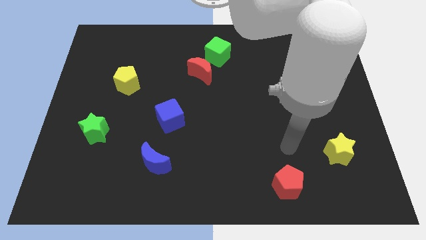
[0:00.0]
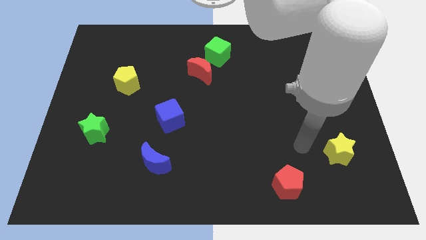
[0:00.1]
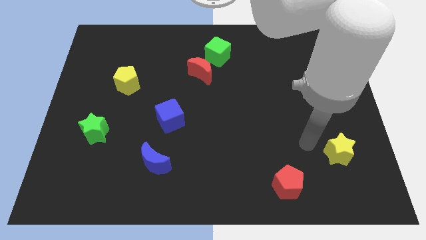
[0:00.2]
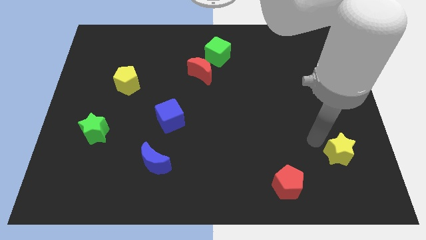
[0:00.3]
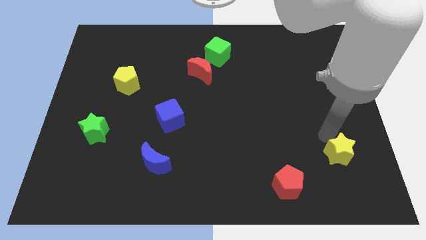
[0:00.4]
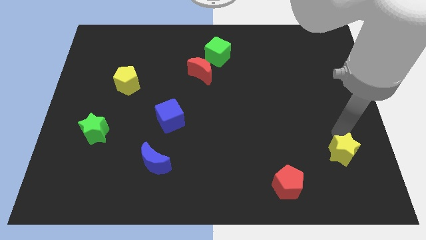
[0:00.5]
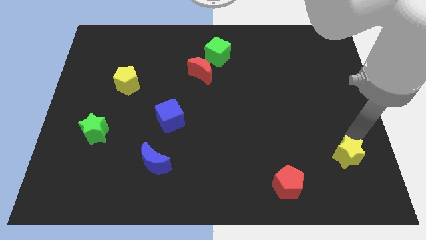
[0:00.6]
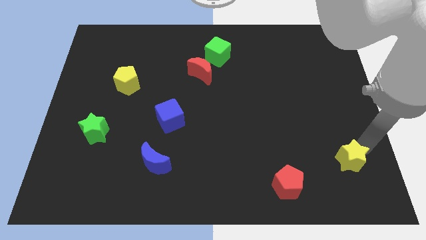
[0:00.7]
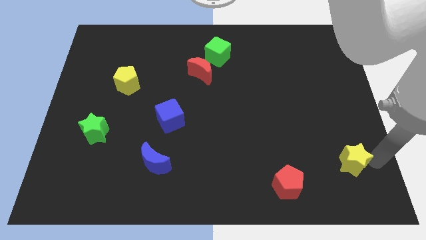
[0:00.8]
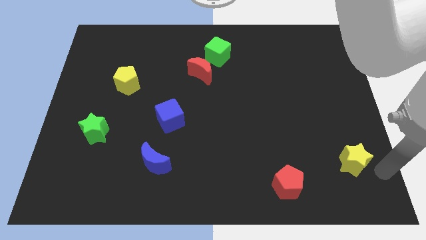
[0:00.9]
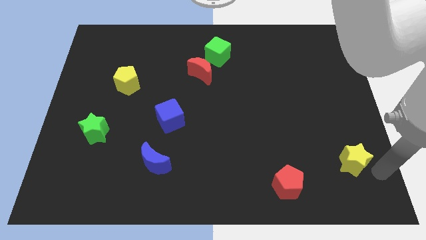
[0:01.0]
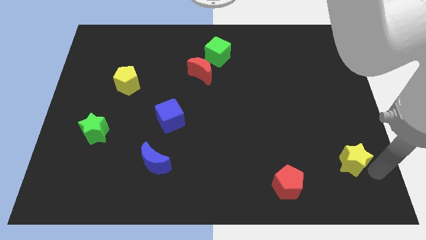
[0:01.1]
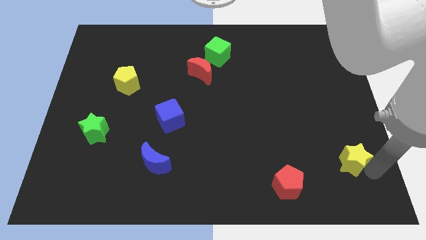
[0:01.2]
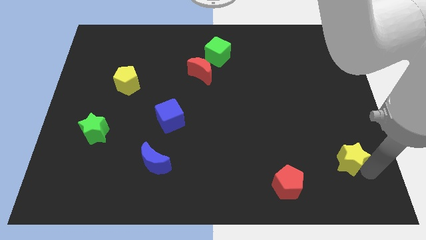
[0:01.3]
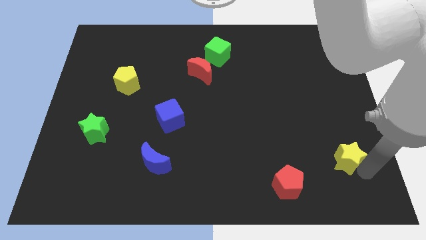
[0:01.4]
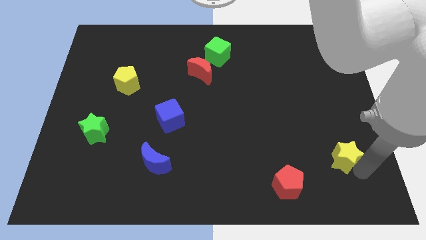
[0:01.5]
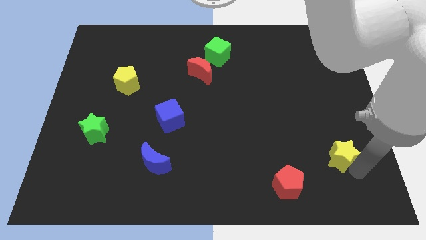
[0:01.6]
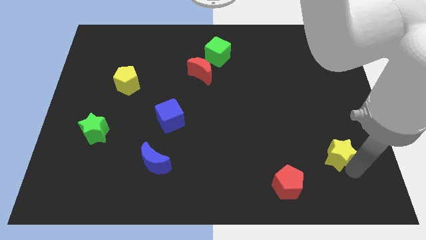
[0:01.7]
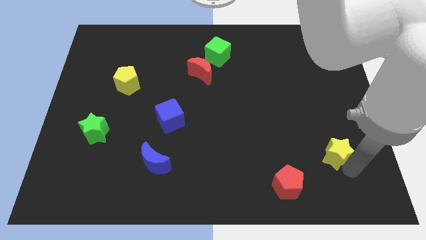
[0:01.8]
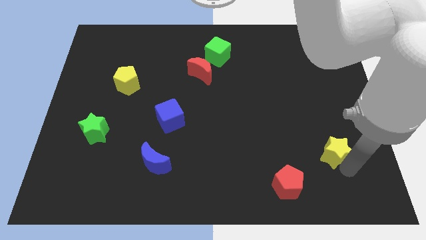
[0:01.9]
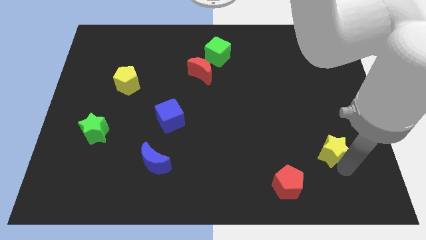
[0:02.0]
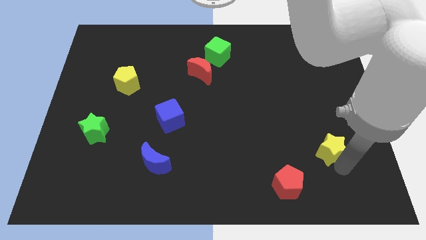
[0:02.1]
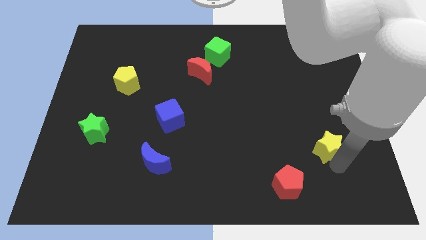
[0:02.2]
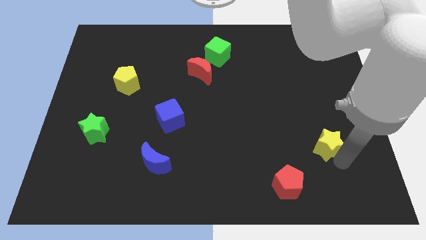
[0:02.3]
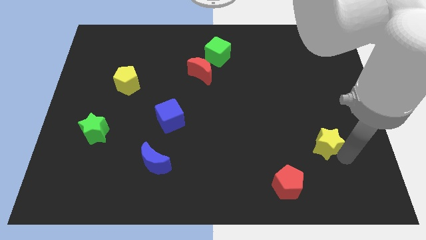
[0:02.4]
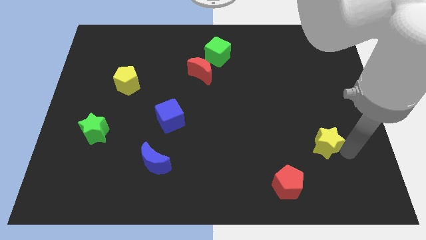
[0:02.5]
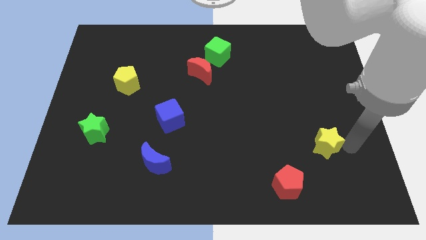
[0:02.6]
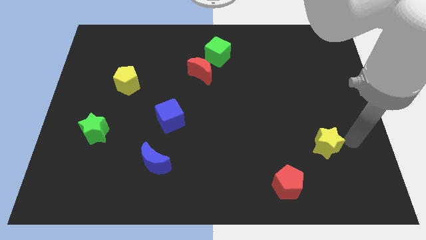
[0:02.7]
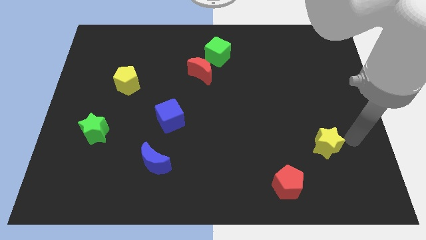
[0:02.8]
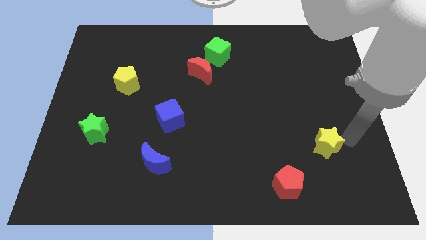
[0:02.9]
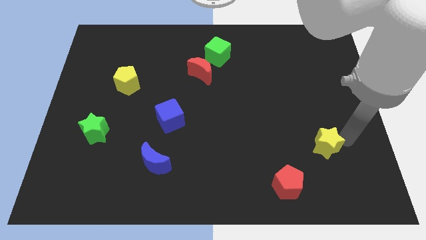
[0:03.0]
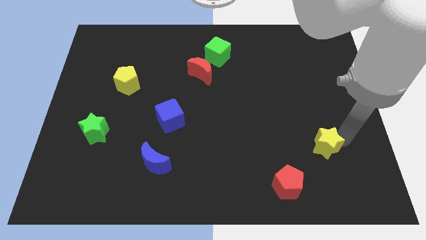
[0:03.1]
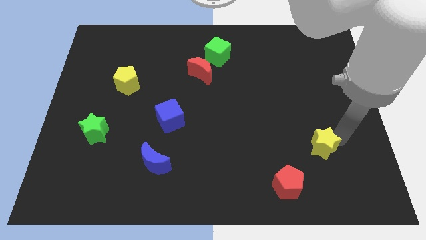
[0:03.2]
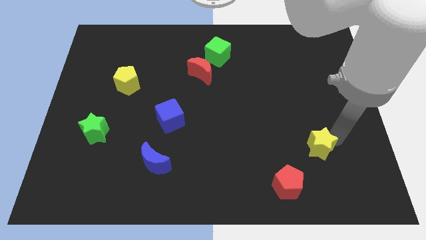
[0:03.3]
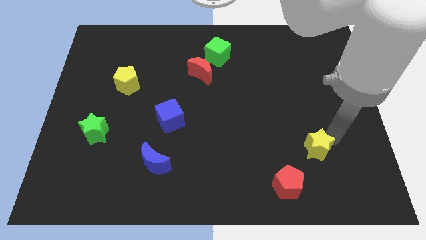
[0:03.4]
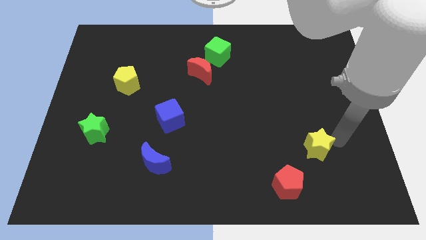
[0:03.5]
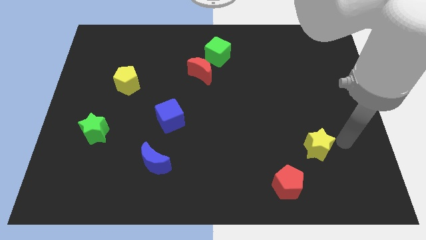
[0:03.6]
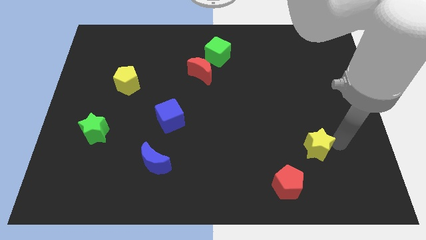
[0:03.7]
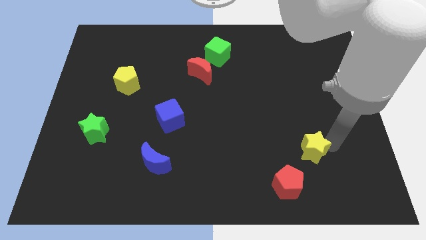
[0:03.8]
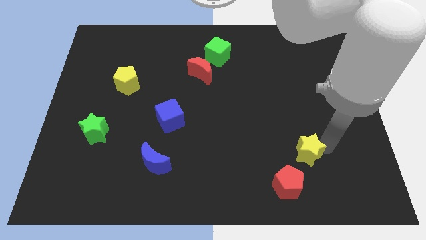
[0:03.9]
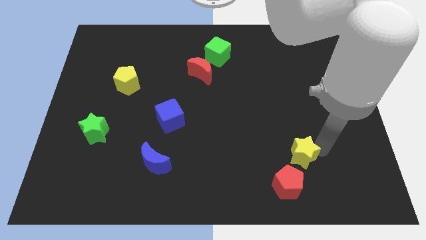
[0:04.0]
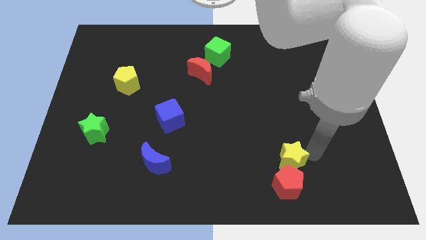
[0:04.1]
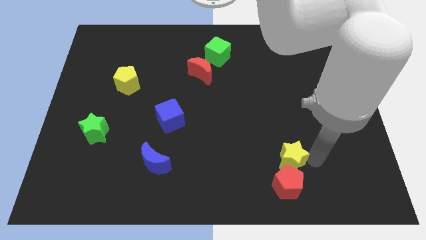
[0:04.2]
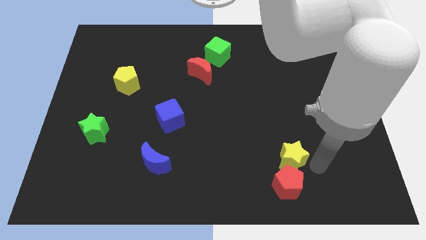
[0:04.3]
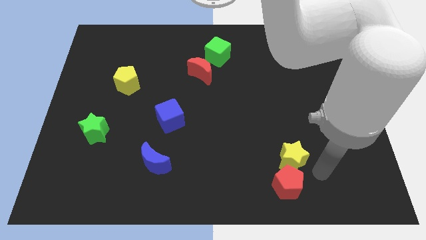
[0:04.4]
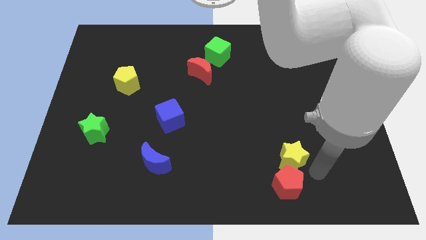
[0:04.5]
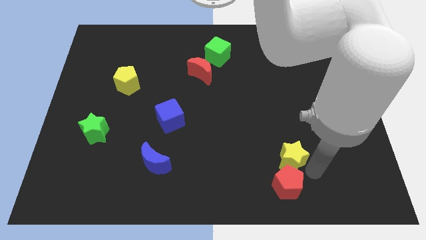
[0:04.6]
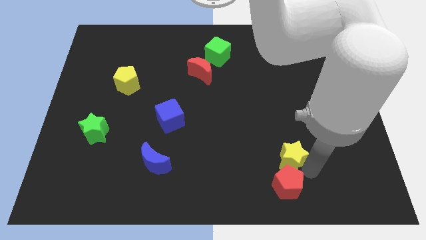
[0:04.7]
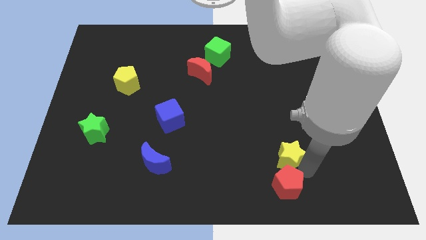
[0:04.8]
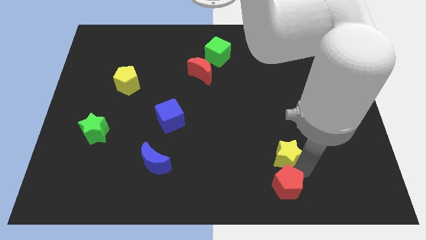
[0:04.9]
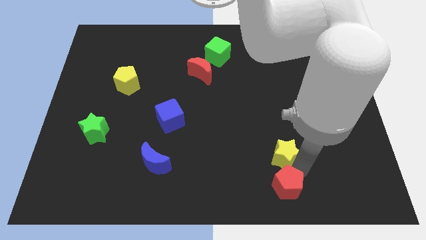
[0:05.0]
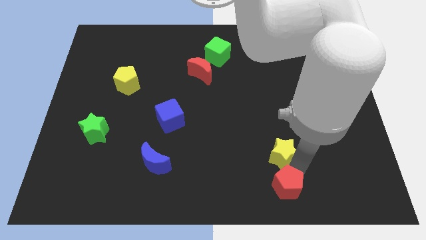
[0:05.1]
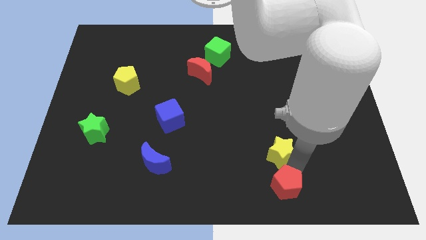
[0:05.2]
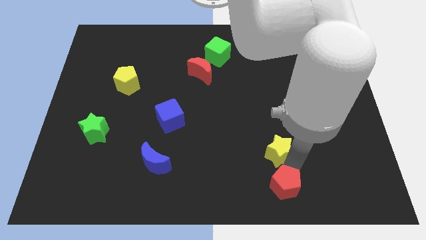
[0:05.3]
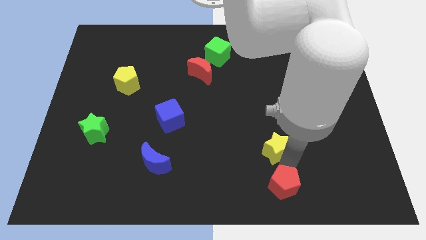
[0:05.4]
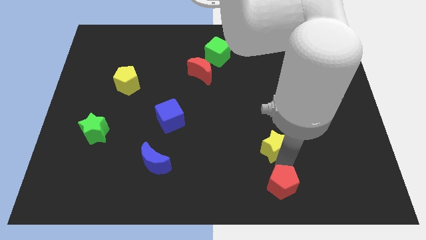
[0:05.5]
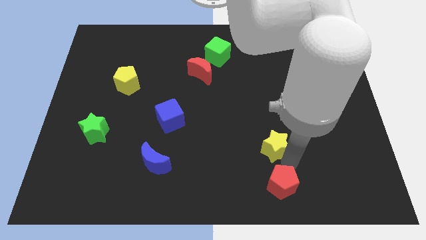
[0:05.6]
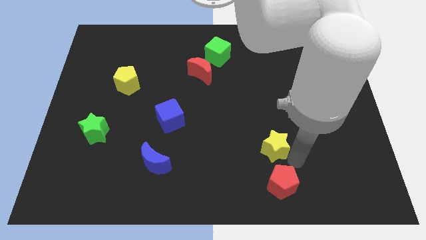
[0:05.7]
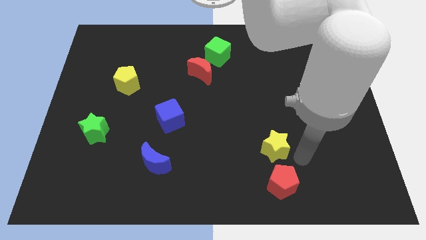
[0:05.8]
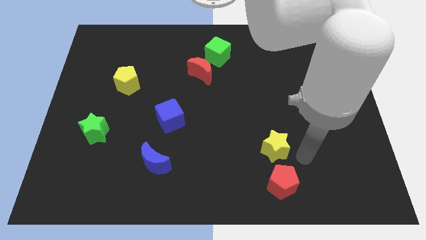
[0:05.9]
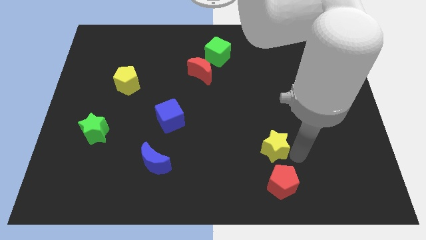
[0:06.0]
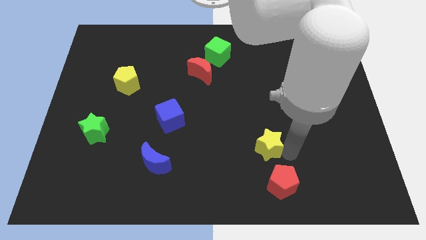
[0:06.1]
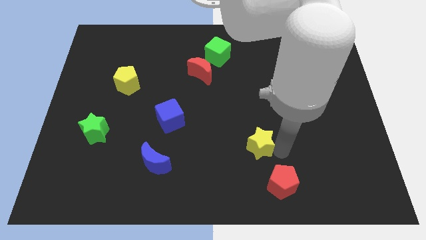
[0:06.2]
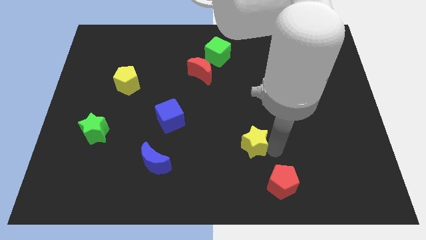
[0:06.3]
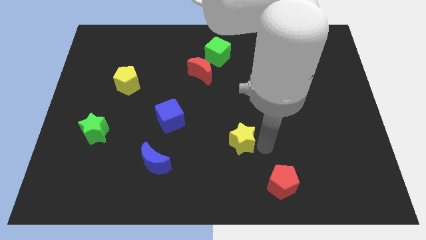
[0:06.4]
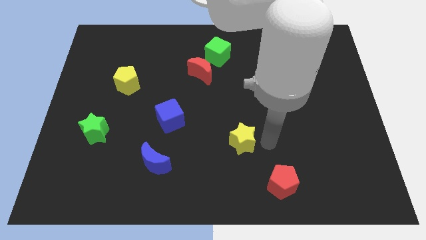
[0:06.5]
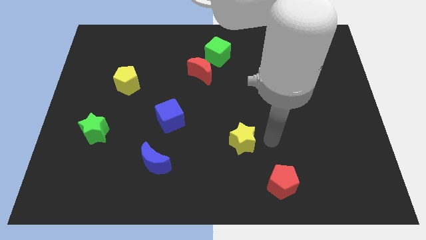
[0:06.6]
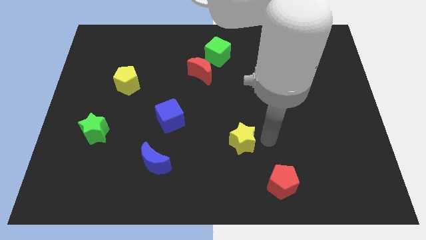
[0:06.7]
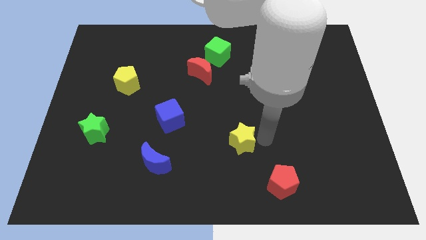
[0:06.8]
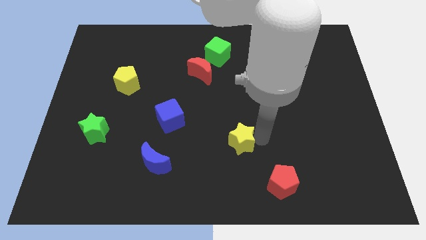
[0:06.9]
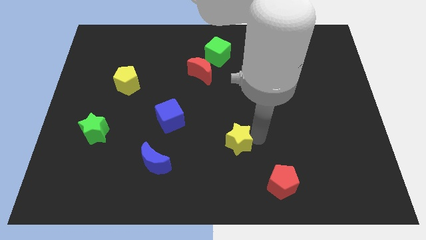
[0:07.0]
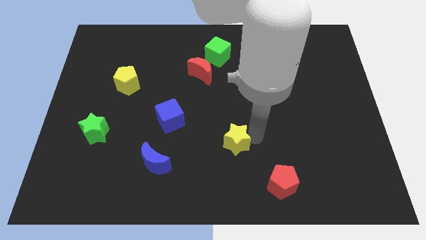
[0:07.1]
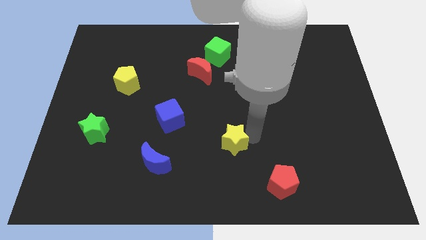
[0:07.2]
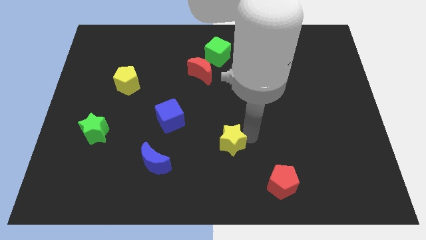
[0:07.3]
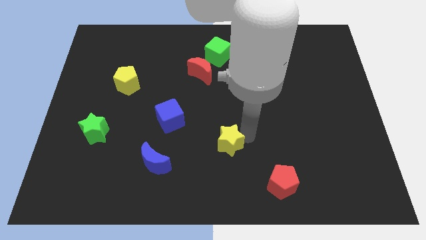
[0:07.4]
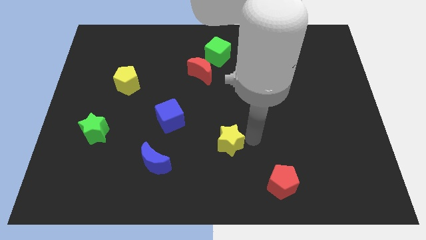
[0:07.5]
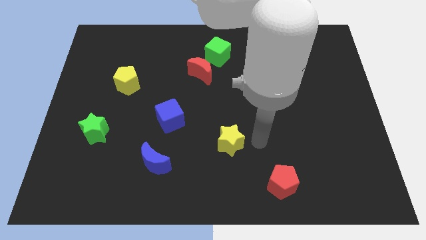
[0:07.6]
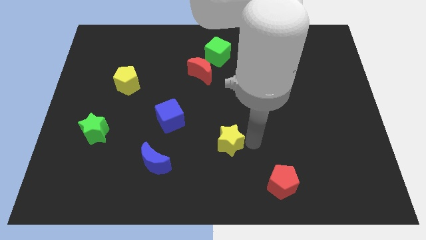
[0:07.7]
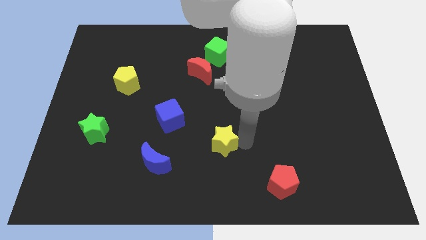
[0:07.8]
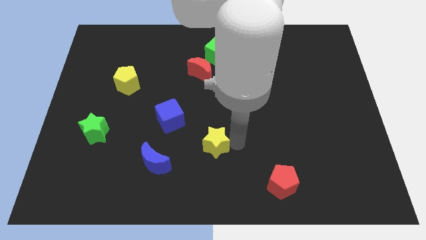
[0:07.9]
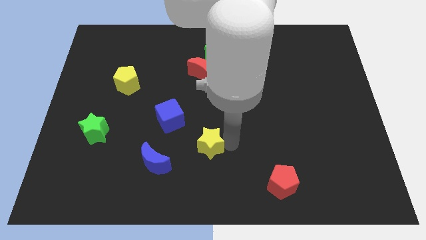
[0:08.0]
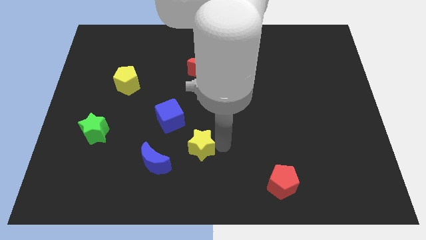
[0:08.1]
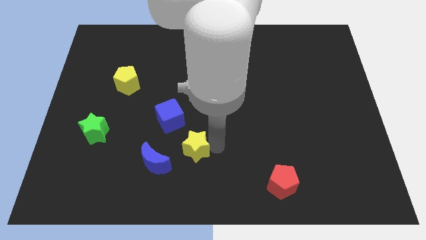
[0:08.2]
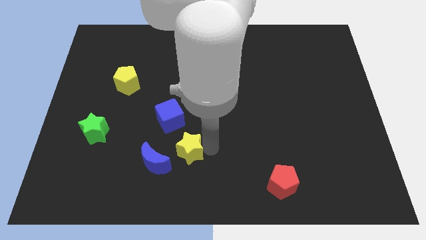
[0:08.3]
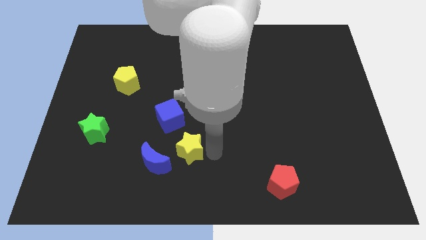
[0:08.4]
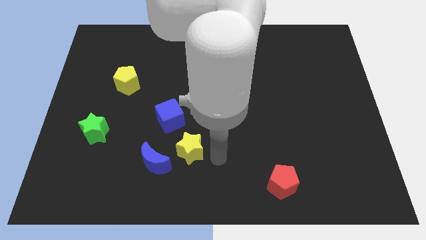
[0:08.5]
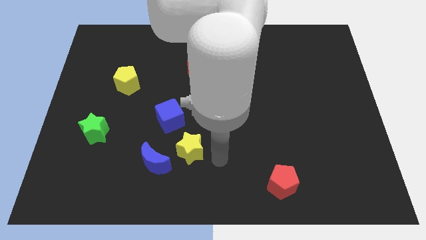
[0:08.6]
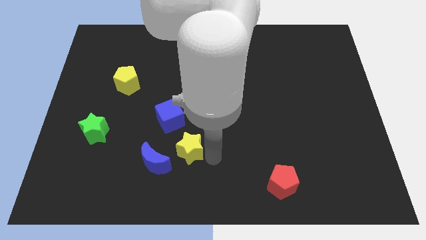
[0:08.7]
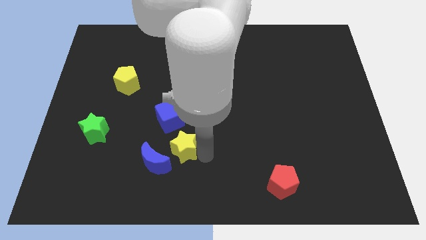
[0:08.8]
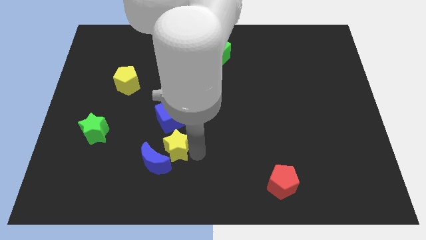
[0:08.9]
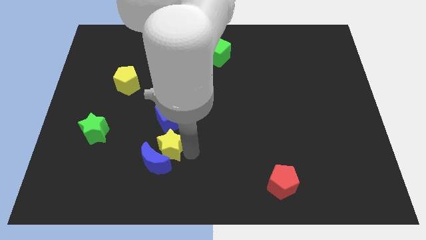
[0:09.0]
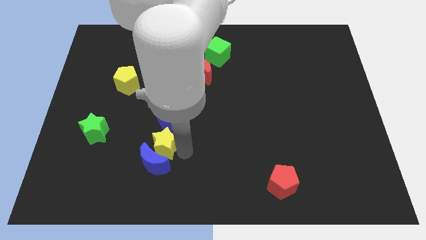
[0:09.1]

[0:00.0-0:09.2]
put the yellow star to the top left side of the blue moon
